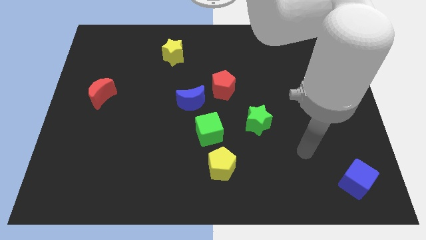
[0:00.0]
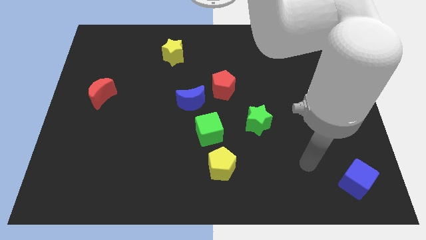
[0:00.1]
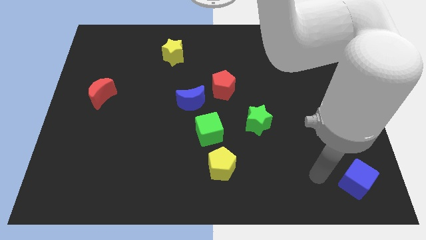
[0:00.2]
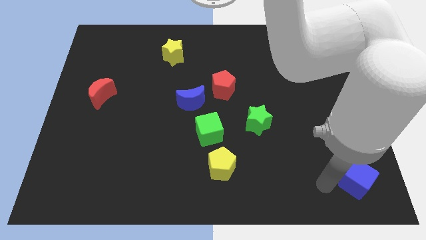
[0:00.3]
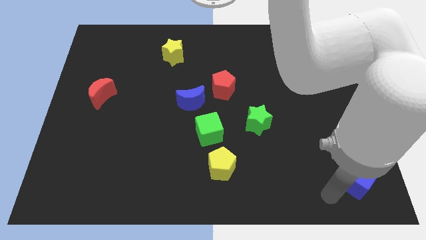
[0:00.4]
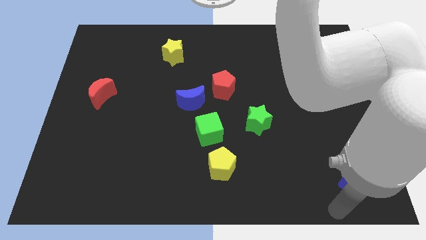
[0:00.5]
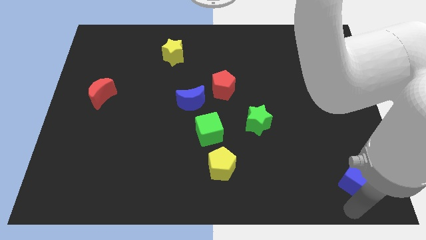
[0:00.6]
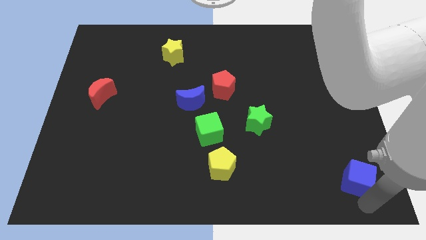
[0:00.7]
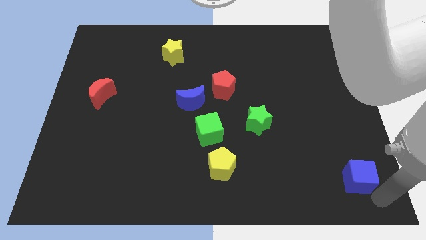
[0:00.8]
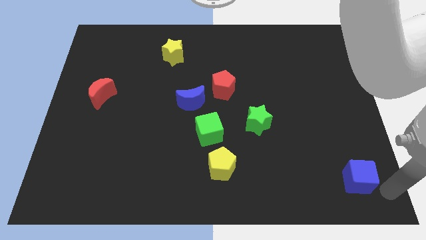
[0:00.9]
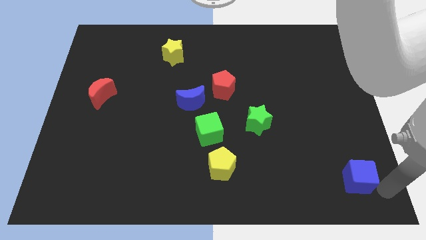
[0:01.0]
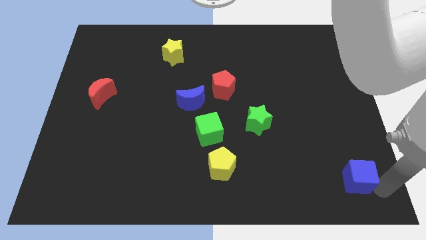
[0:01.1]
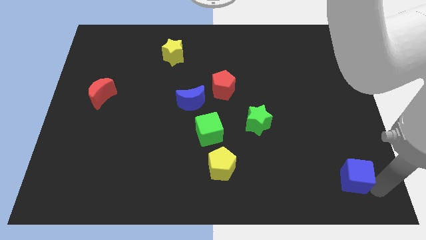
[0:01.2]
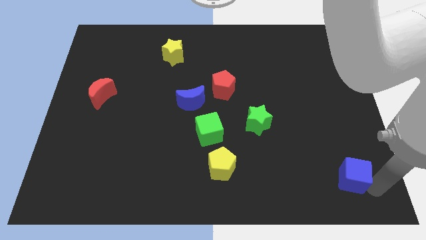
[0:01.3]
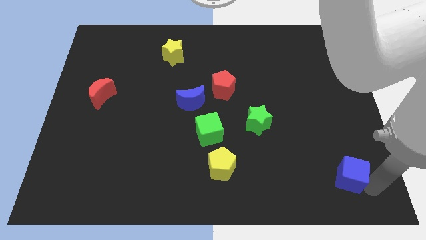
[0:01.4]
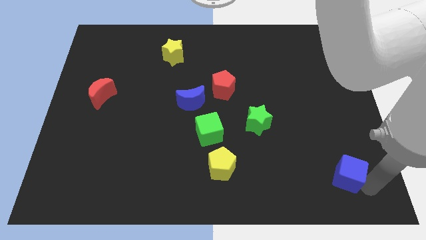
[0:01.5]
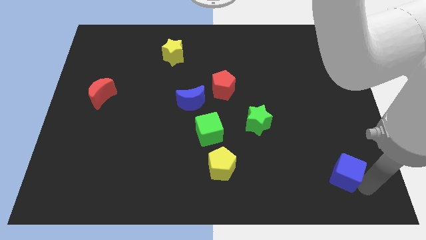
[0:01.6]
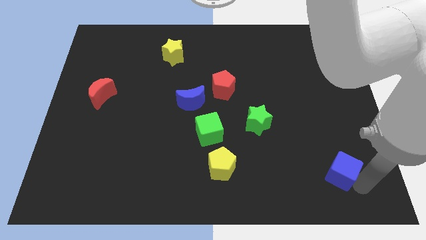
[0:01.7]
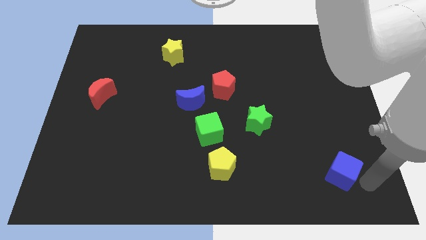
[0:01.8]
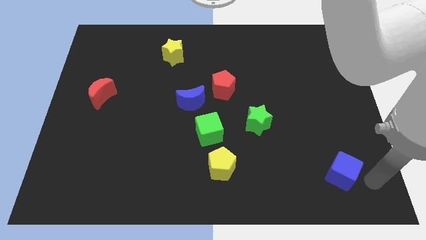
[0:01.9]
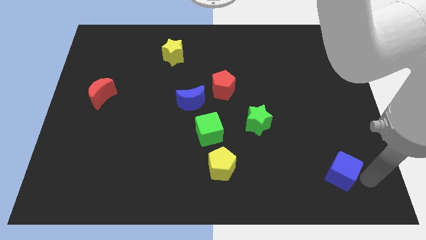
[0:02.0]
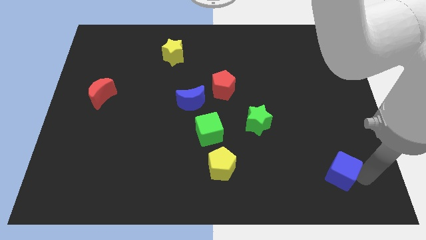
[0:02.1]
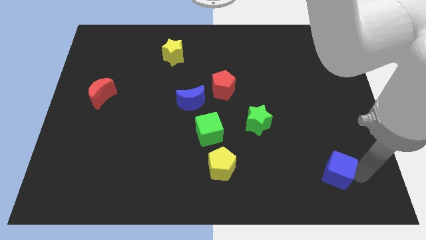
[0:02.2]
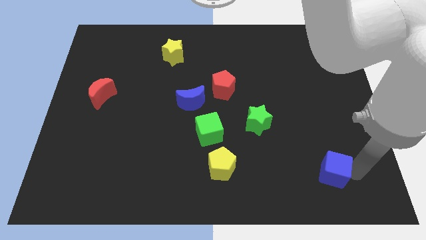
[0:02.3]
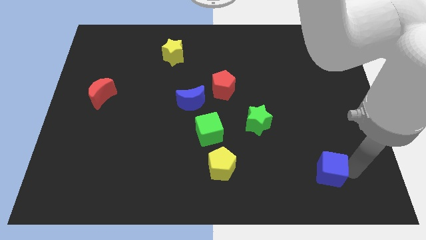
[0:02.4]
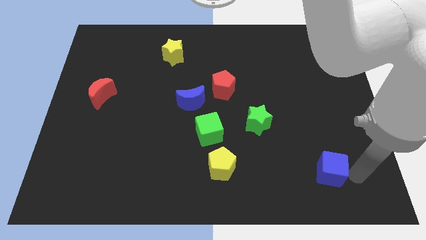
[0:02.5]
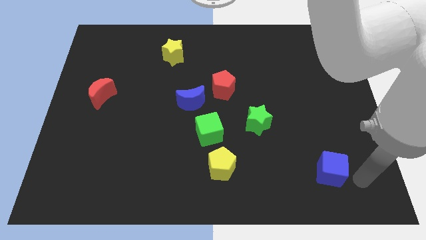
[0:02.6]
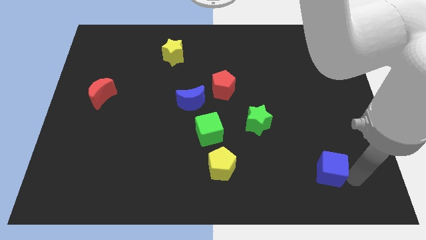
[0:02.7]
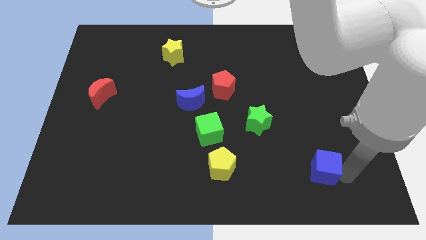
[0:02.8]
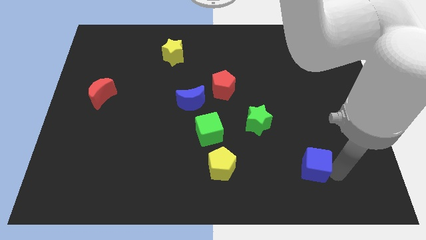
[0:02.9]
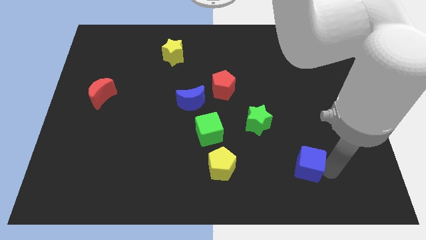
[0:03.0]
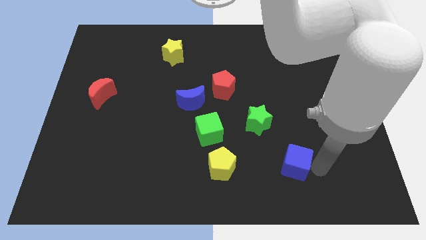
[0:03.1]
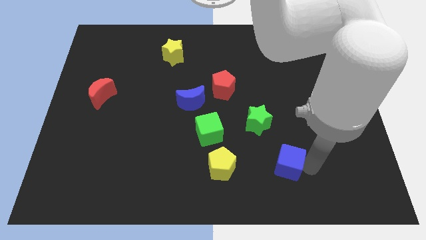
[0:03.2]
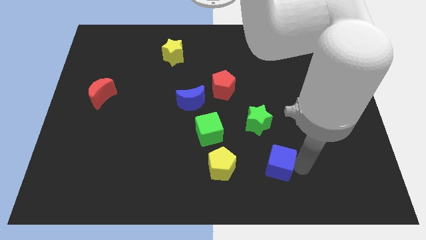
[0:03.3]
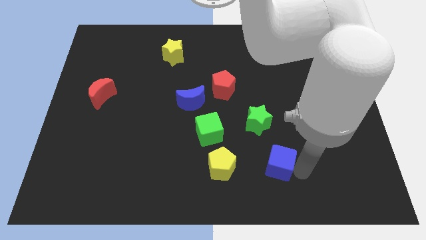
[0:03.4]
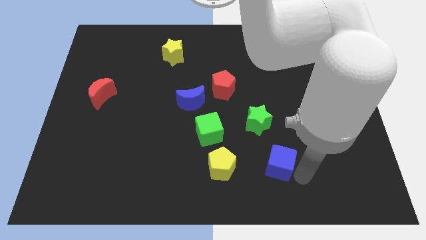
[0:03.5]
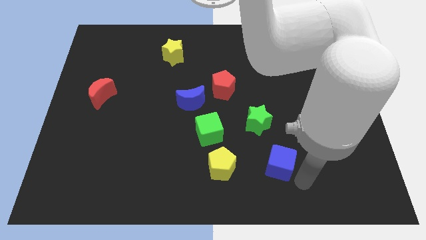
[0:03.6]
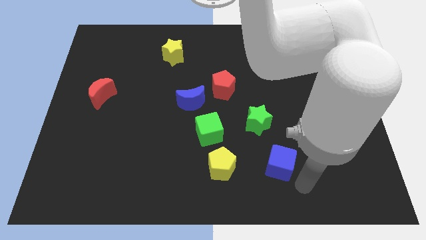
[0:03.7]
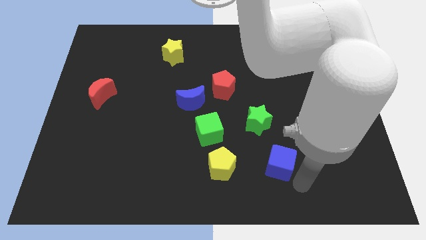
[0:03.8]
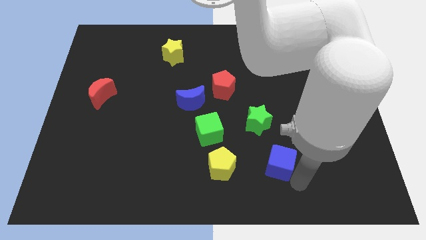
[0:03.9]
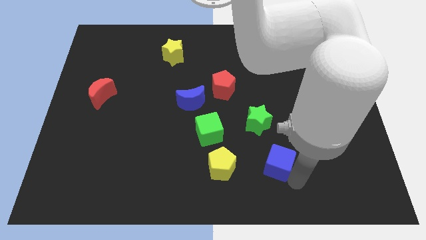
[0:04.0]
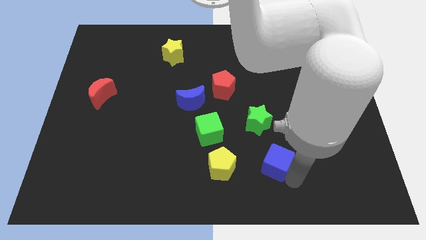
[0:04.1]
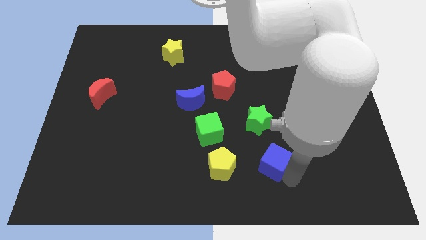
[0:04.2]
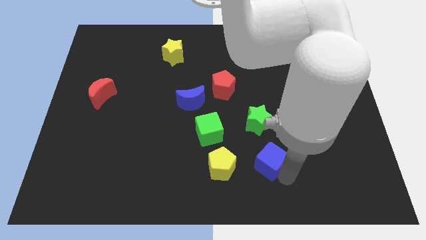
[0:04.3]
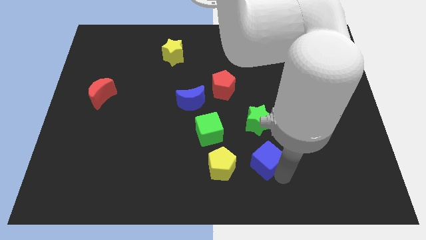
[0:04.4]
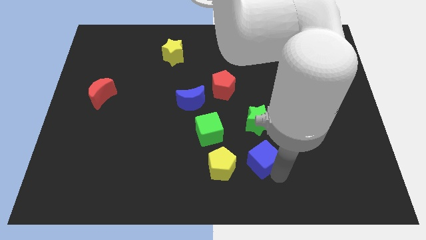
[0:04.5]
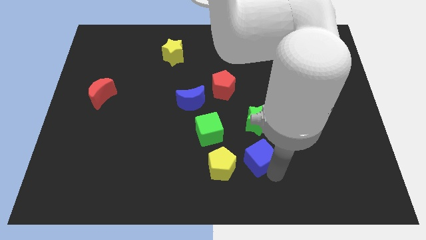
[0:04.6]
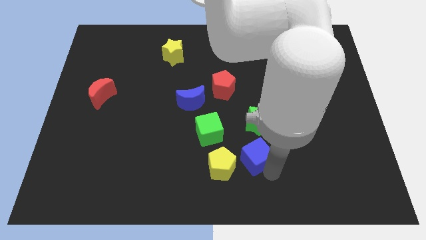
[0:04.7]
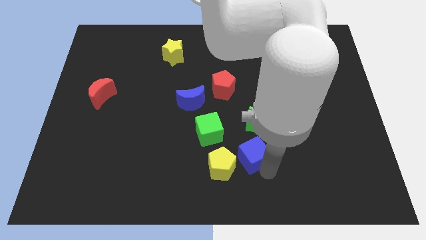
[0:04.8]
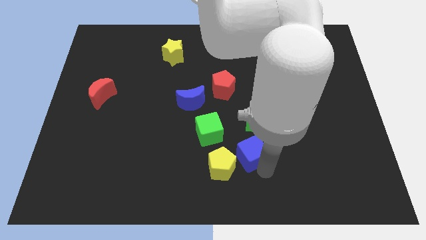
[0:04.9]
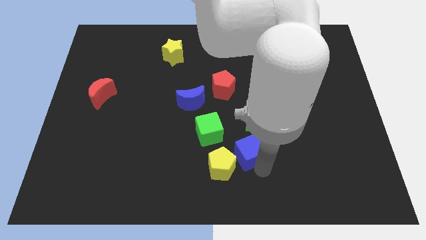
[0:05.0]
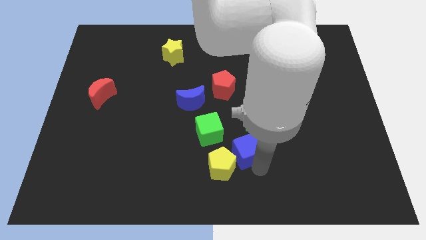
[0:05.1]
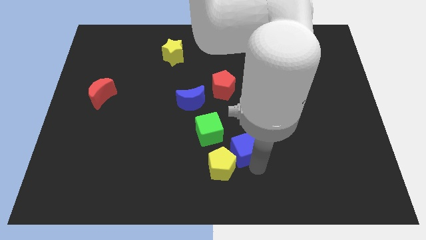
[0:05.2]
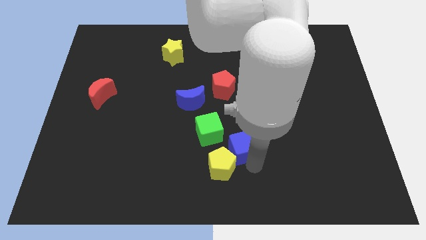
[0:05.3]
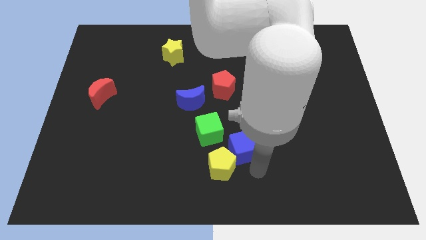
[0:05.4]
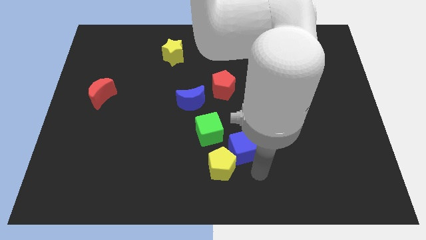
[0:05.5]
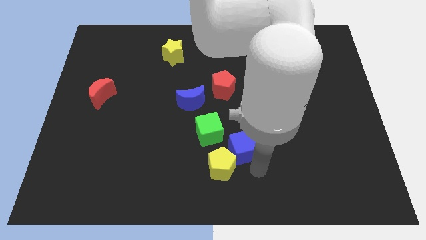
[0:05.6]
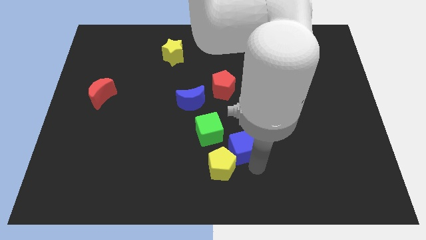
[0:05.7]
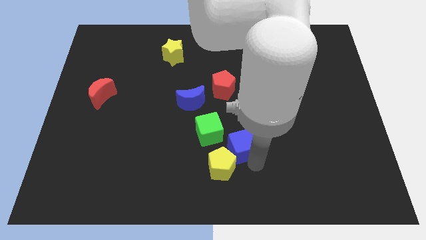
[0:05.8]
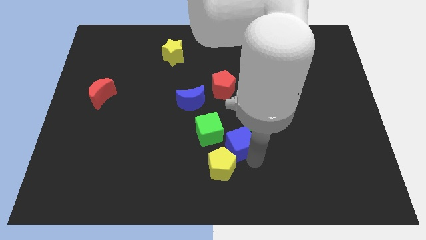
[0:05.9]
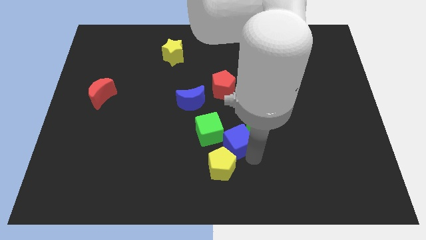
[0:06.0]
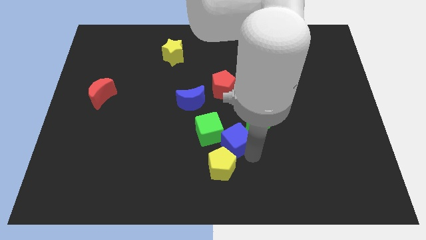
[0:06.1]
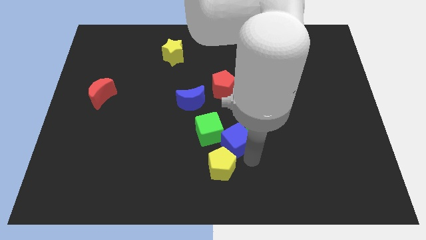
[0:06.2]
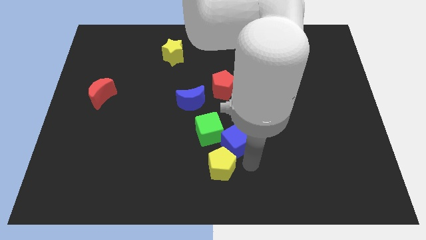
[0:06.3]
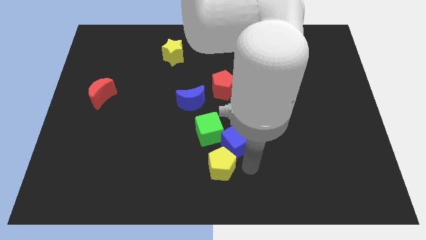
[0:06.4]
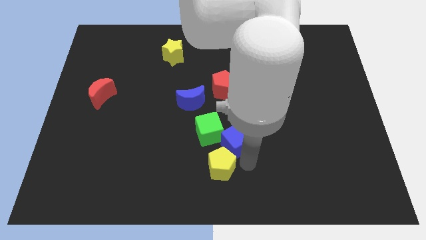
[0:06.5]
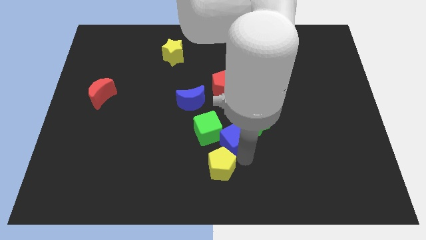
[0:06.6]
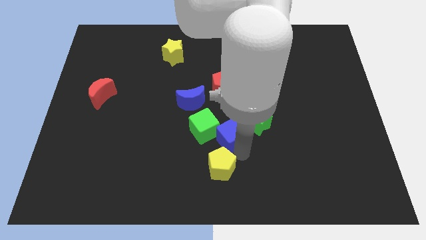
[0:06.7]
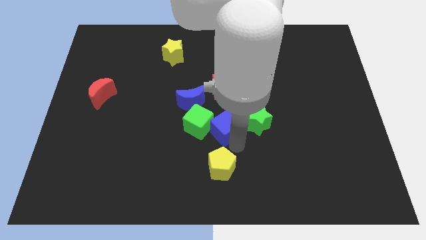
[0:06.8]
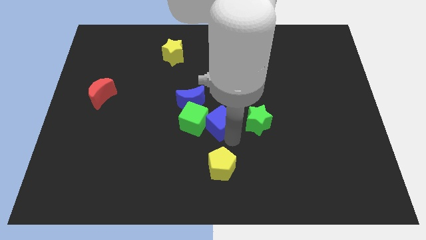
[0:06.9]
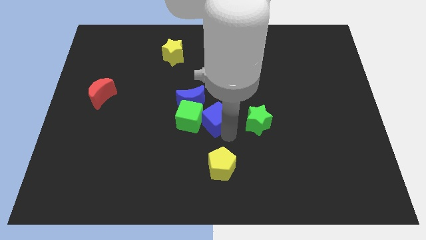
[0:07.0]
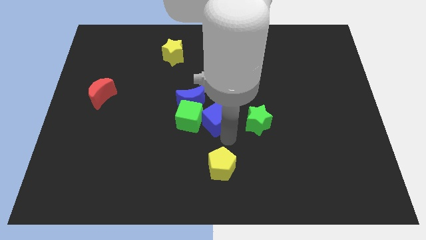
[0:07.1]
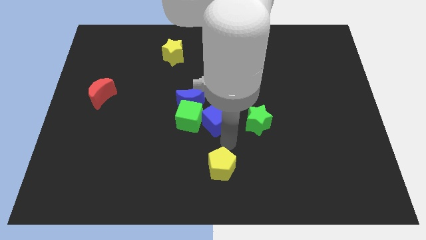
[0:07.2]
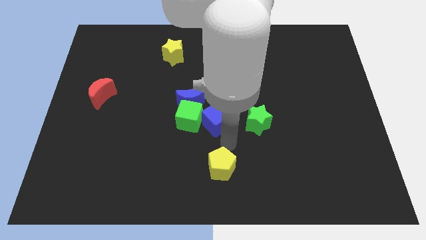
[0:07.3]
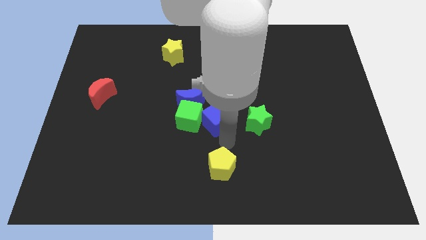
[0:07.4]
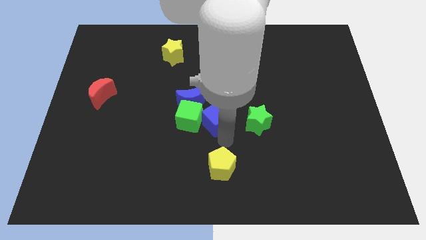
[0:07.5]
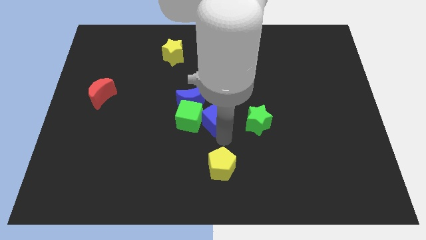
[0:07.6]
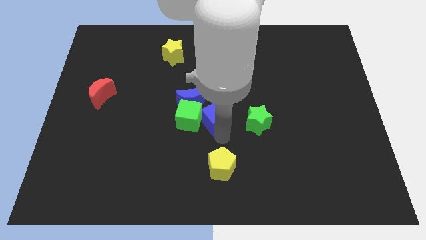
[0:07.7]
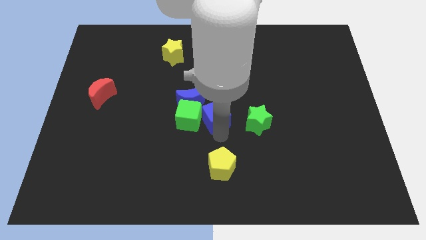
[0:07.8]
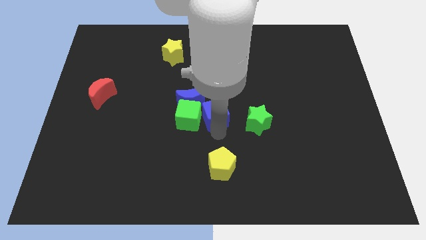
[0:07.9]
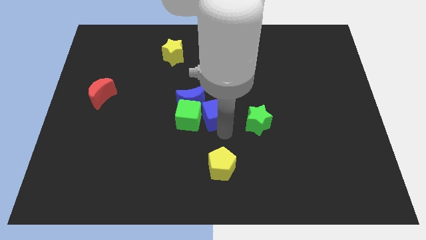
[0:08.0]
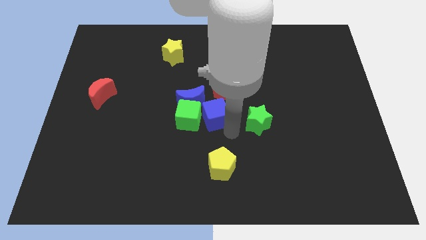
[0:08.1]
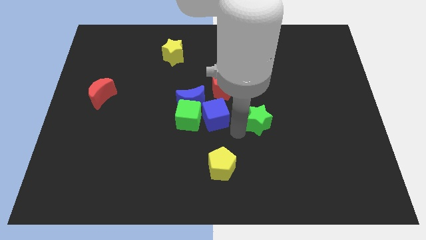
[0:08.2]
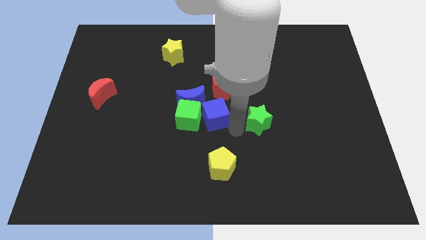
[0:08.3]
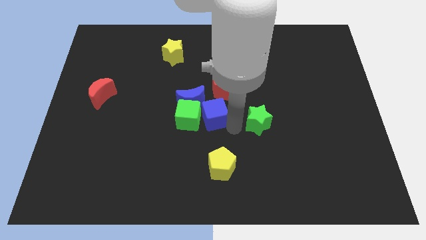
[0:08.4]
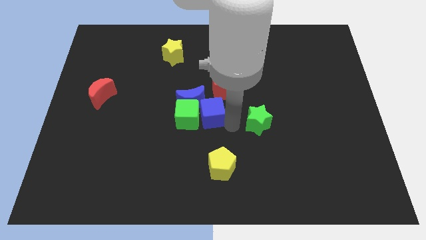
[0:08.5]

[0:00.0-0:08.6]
move the blue cube towards the blue moon
